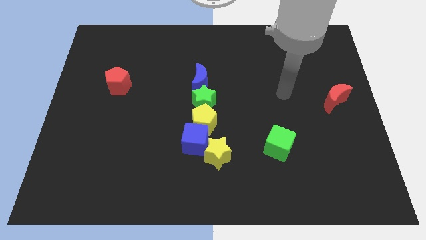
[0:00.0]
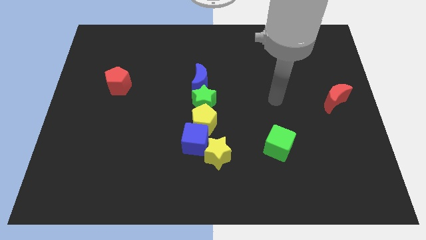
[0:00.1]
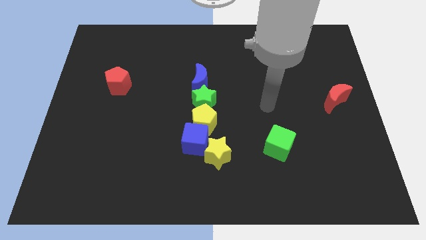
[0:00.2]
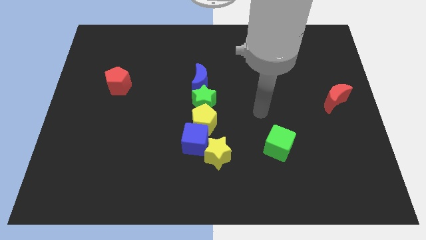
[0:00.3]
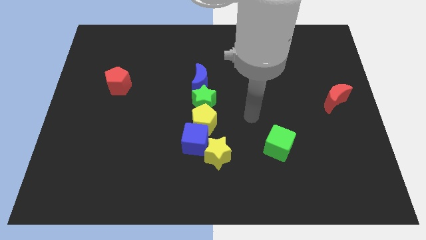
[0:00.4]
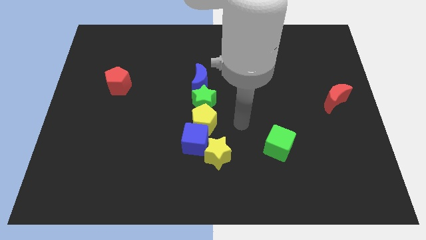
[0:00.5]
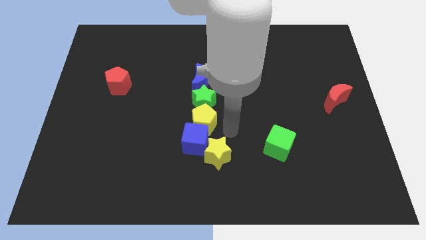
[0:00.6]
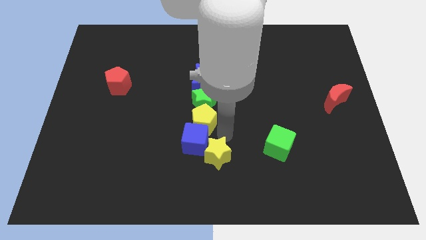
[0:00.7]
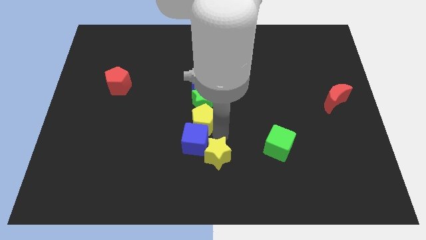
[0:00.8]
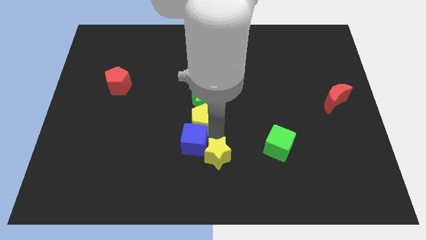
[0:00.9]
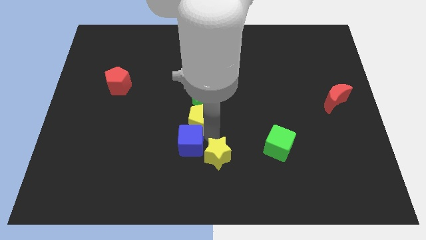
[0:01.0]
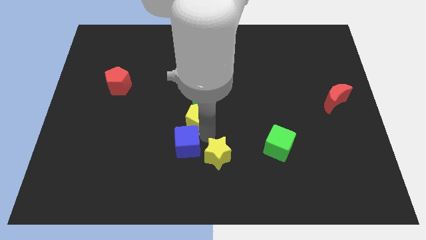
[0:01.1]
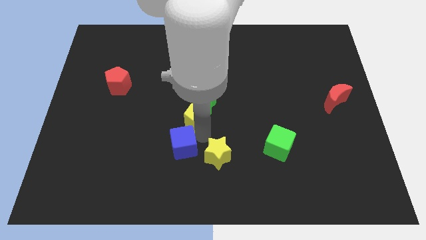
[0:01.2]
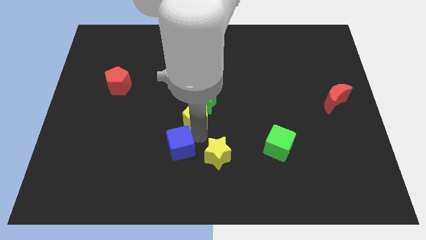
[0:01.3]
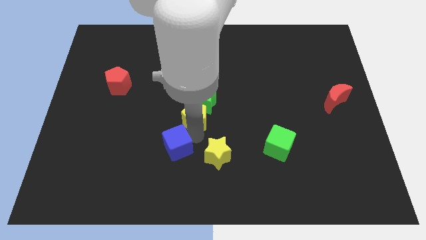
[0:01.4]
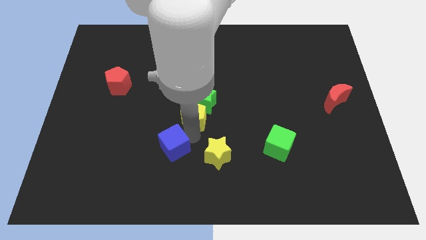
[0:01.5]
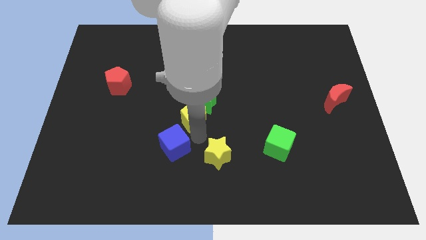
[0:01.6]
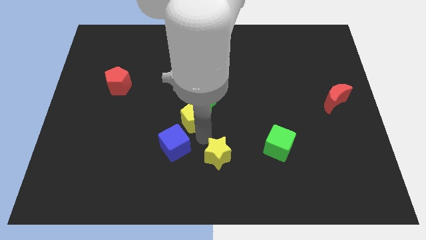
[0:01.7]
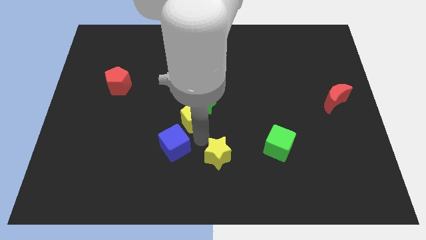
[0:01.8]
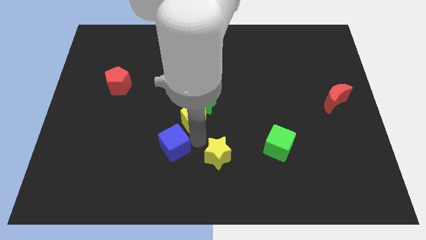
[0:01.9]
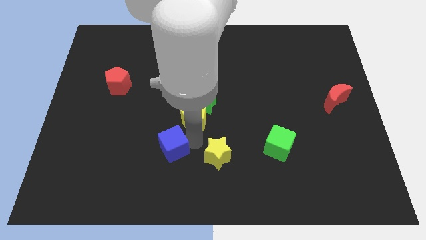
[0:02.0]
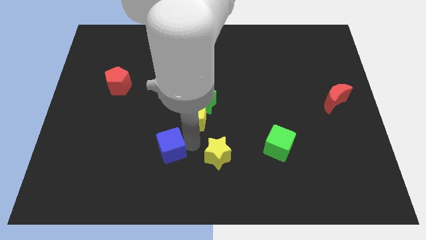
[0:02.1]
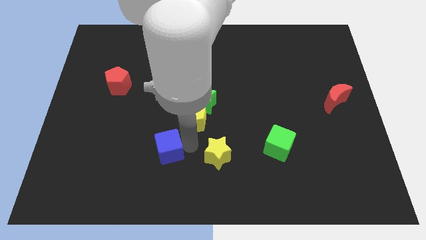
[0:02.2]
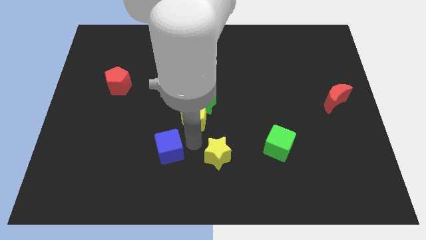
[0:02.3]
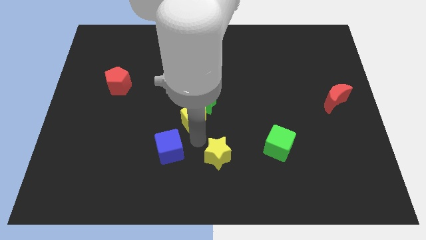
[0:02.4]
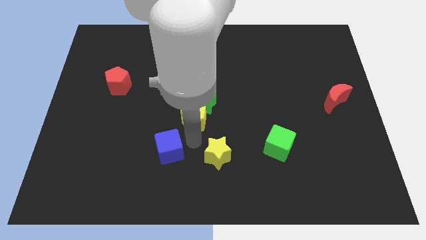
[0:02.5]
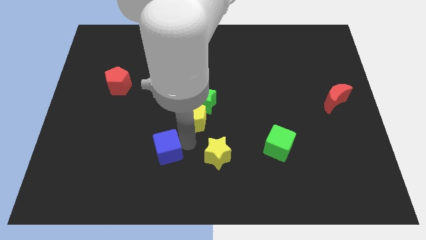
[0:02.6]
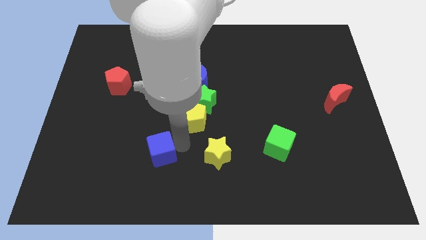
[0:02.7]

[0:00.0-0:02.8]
move the blue cube away from the yellow pentagon and yellow star

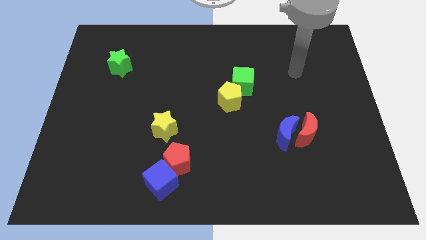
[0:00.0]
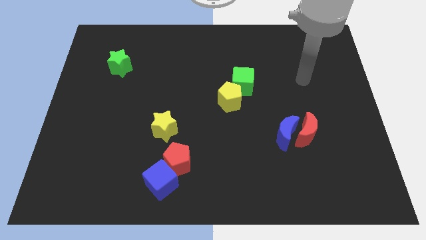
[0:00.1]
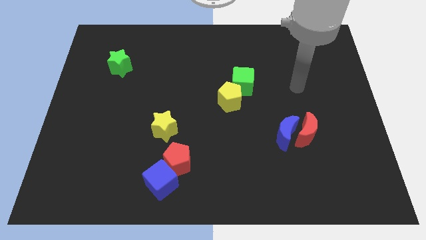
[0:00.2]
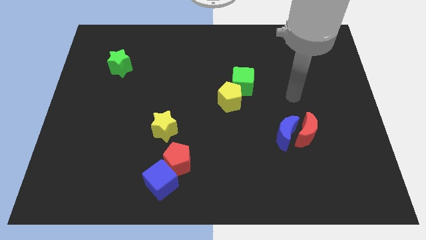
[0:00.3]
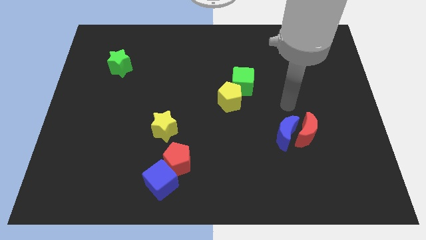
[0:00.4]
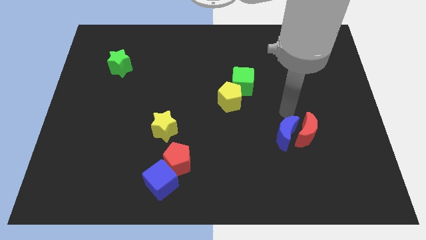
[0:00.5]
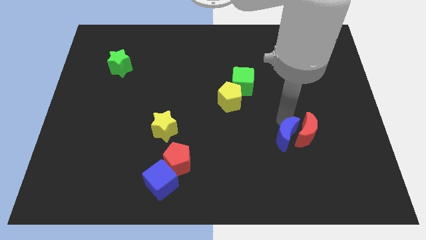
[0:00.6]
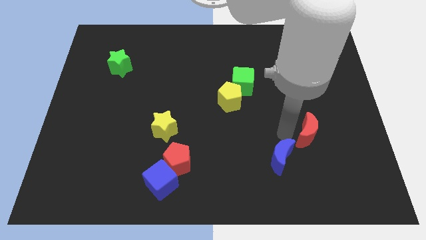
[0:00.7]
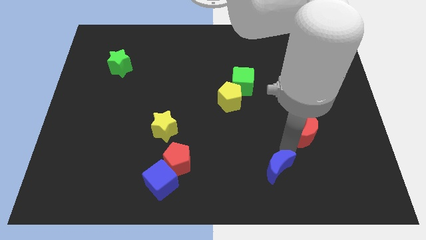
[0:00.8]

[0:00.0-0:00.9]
move the red moon away from the blue moon

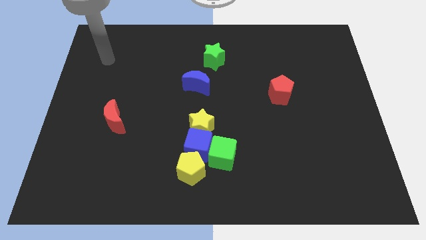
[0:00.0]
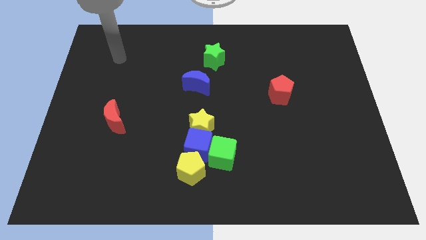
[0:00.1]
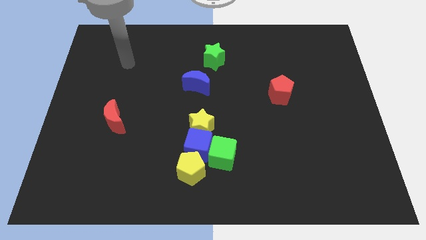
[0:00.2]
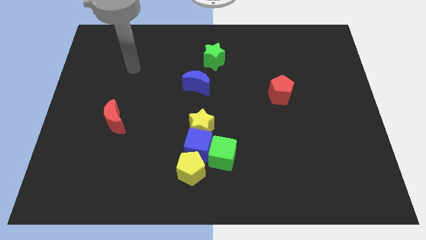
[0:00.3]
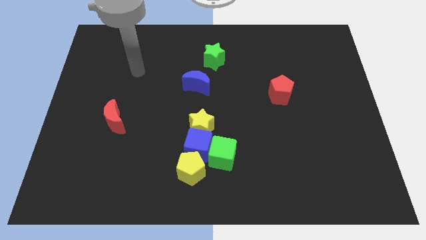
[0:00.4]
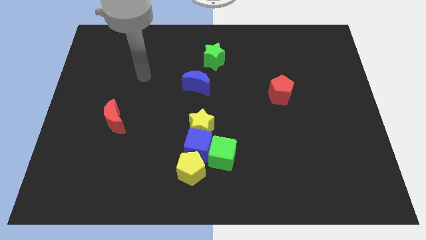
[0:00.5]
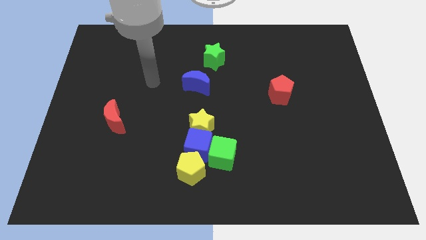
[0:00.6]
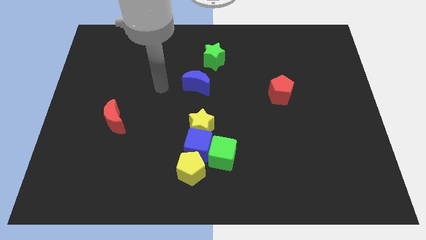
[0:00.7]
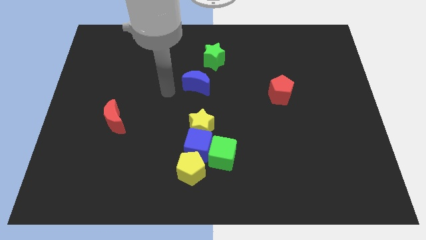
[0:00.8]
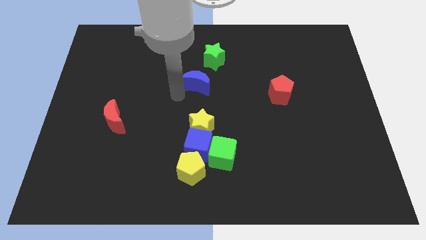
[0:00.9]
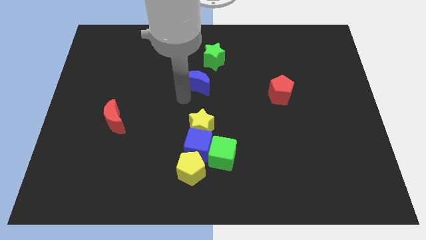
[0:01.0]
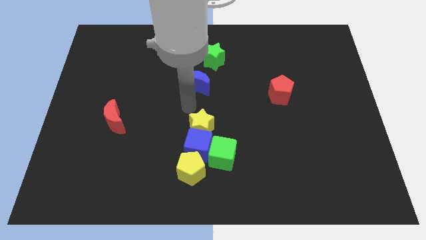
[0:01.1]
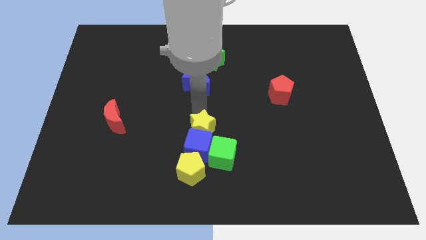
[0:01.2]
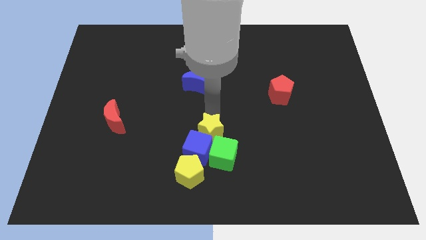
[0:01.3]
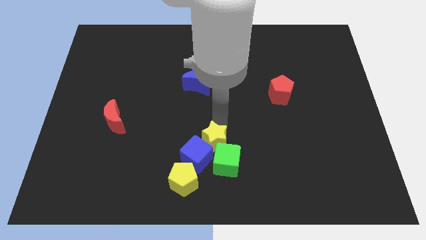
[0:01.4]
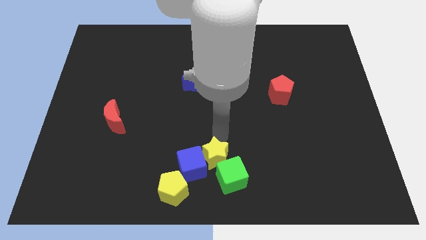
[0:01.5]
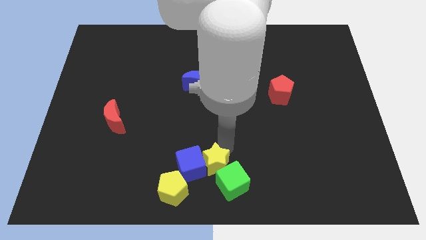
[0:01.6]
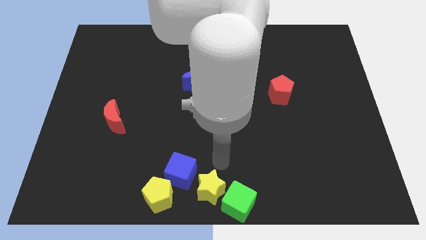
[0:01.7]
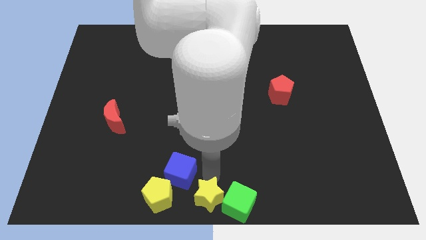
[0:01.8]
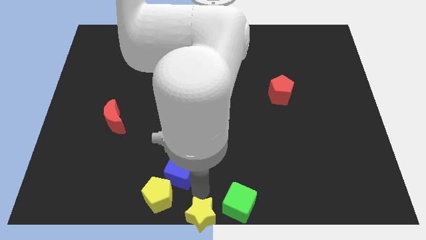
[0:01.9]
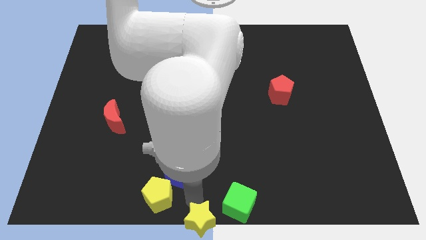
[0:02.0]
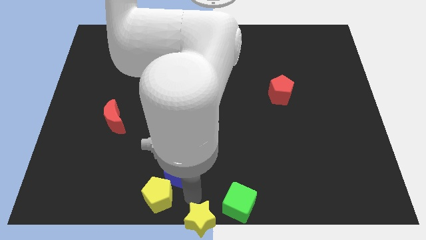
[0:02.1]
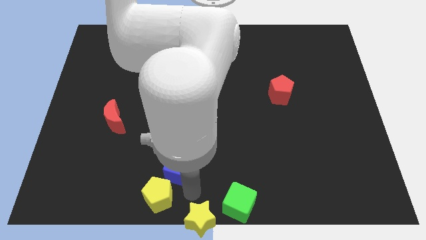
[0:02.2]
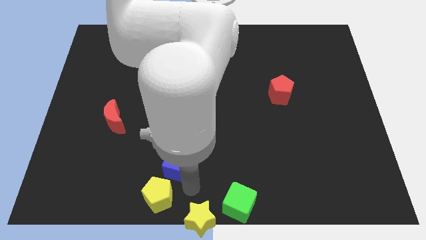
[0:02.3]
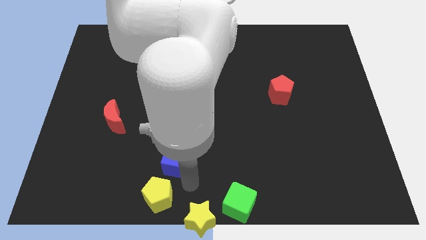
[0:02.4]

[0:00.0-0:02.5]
pull the blue cube apart from the clump

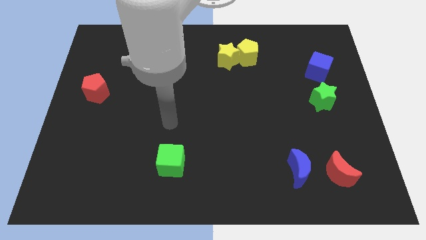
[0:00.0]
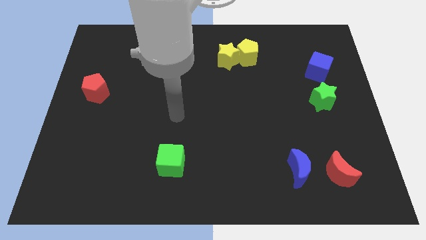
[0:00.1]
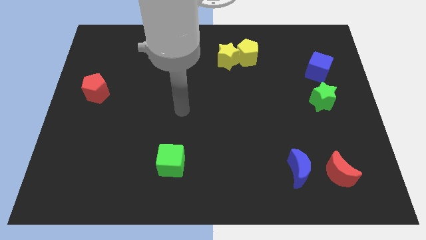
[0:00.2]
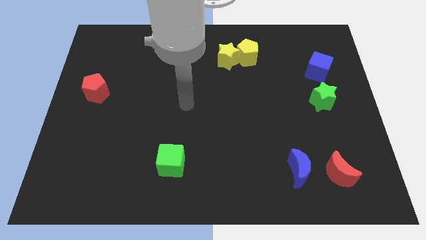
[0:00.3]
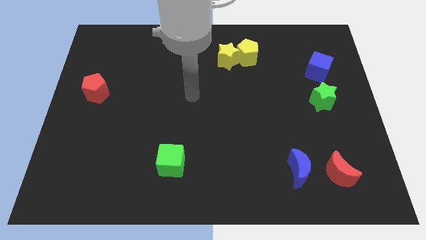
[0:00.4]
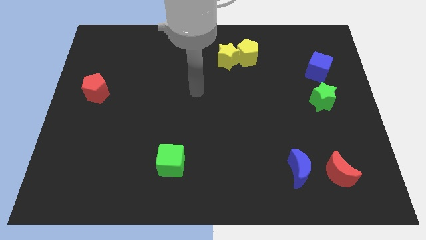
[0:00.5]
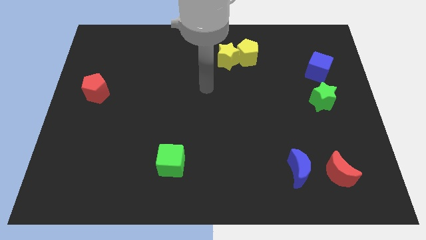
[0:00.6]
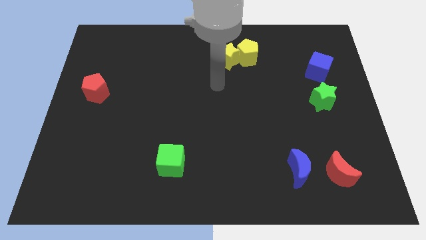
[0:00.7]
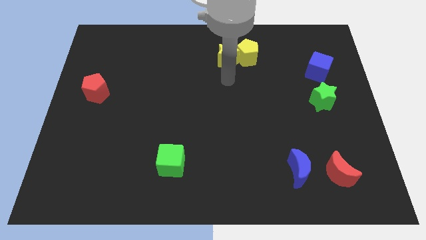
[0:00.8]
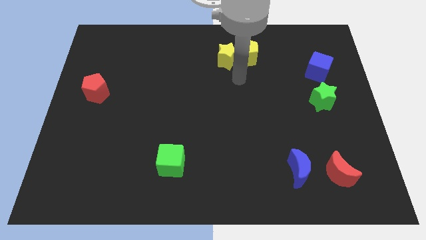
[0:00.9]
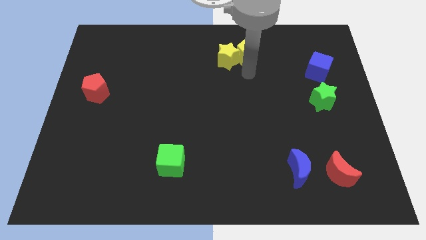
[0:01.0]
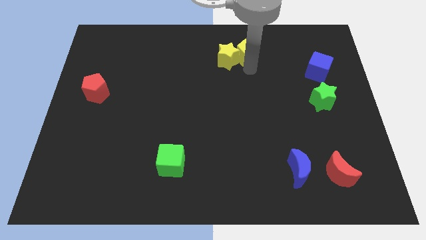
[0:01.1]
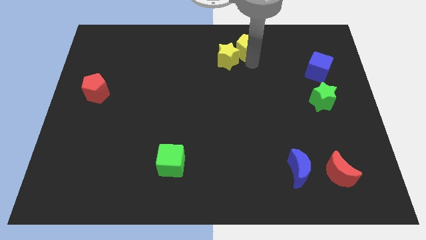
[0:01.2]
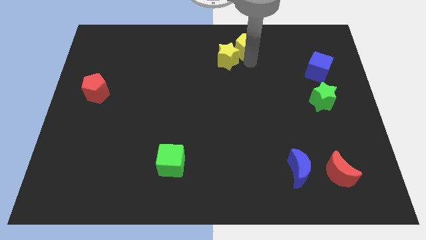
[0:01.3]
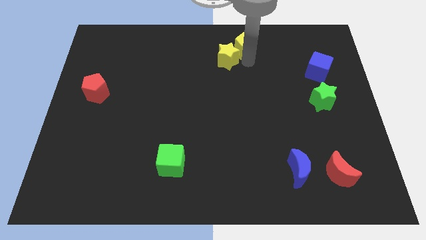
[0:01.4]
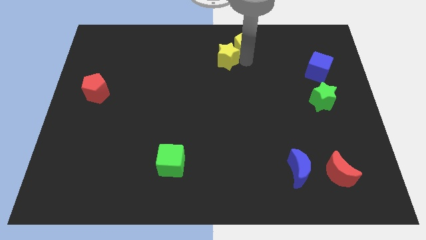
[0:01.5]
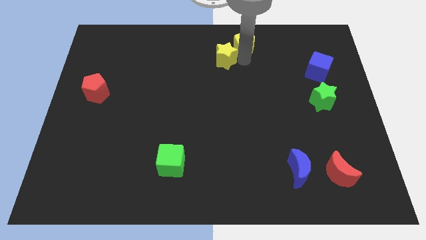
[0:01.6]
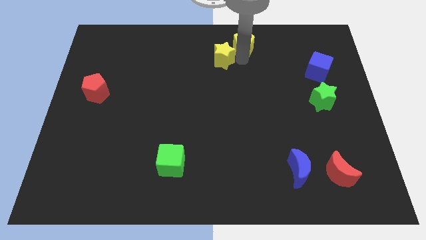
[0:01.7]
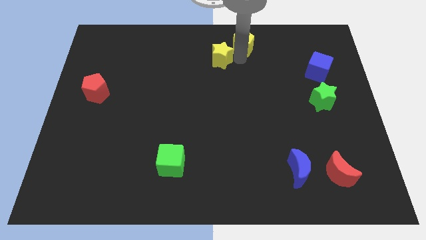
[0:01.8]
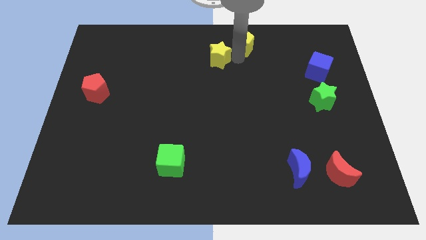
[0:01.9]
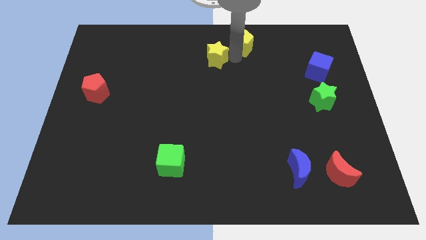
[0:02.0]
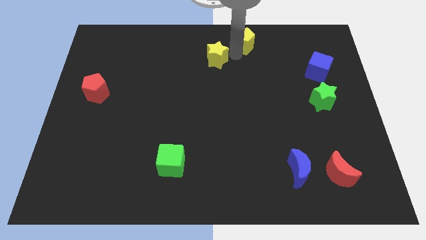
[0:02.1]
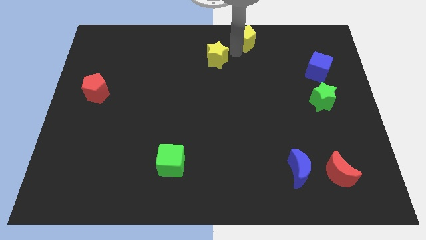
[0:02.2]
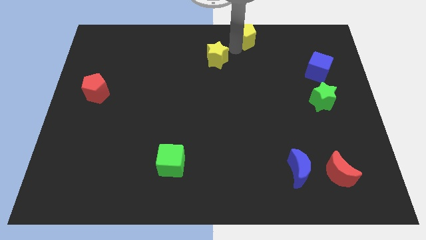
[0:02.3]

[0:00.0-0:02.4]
pull the yellow star apart from the yellow pentagon

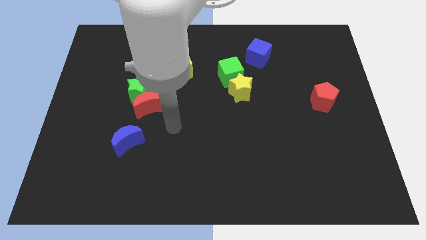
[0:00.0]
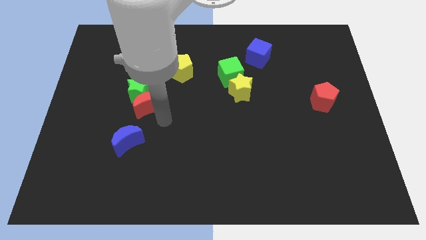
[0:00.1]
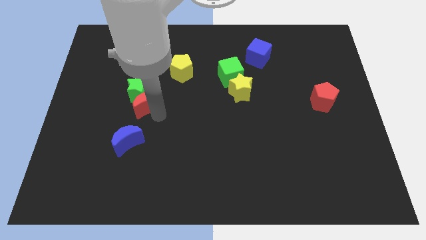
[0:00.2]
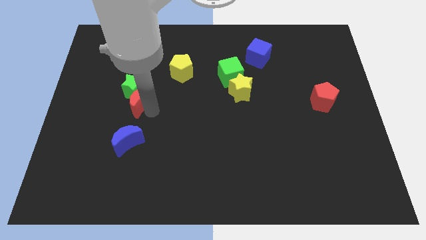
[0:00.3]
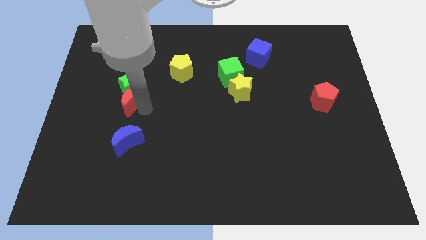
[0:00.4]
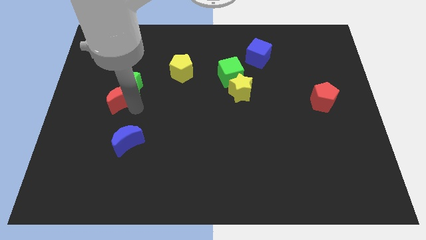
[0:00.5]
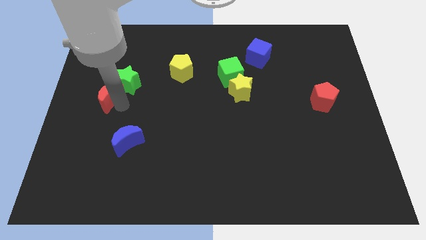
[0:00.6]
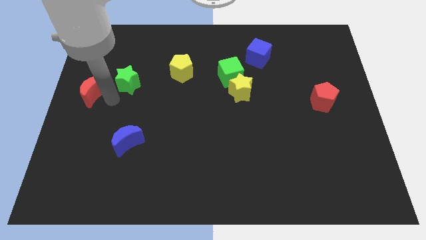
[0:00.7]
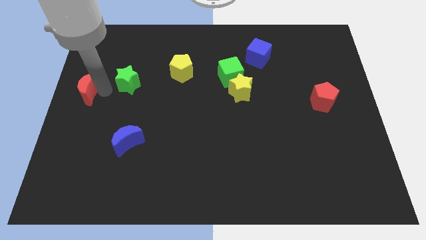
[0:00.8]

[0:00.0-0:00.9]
pull the green star apart from the red moon

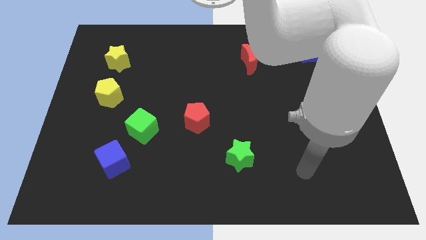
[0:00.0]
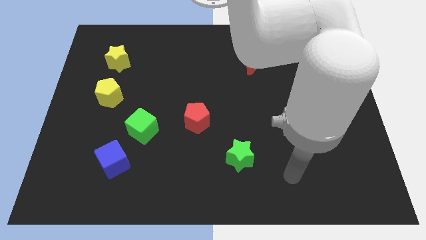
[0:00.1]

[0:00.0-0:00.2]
move the blue cube away from the green cube
